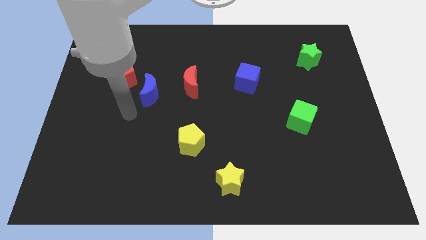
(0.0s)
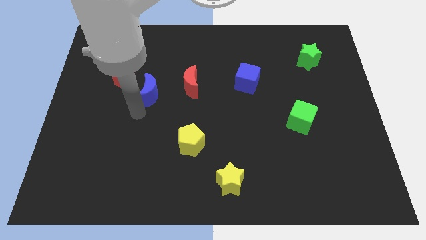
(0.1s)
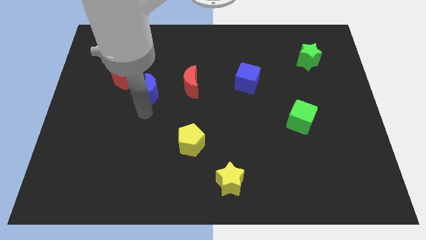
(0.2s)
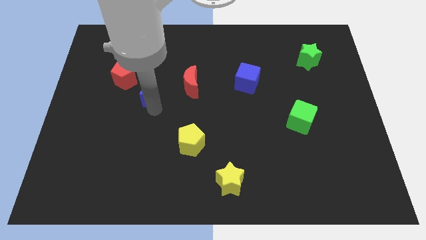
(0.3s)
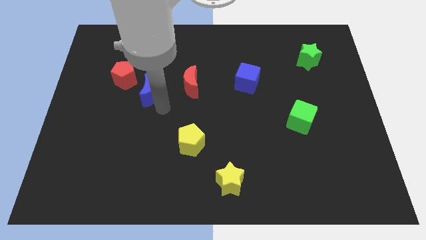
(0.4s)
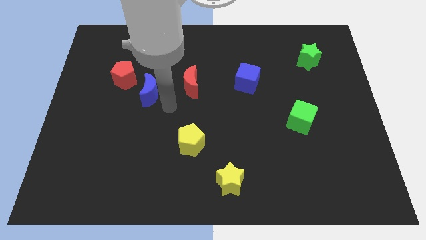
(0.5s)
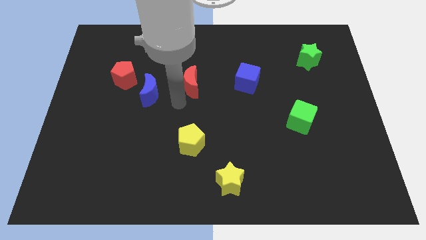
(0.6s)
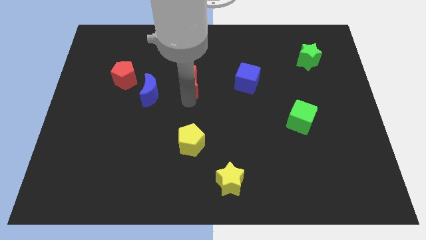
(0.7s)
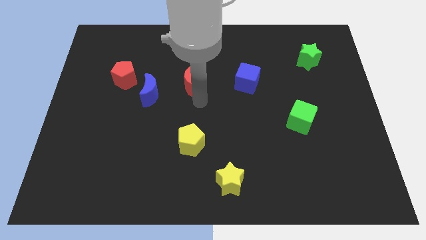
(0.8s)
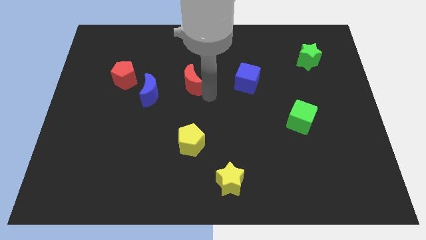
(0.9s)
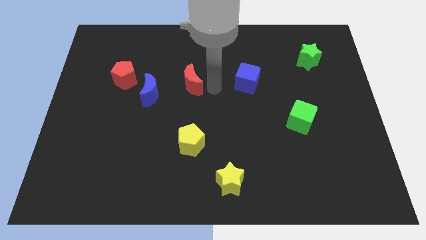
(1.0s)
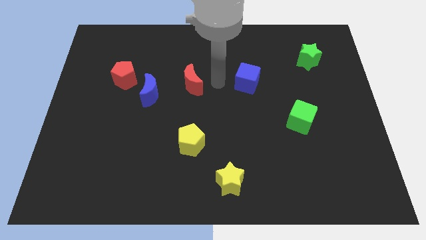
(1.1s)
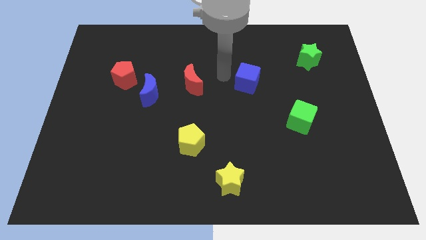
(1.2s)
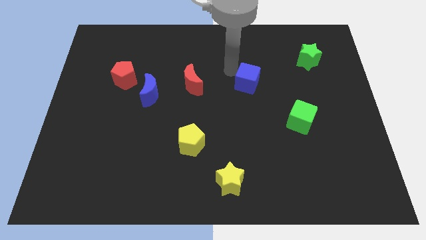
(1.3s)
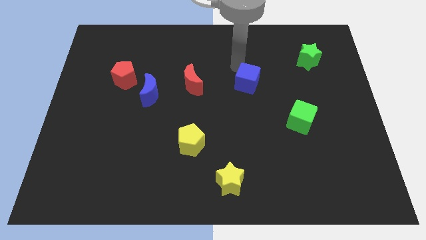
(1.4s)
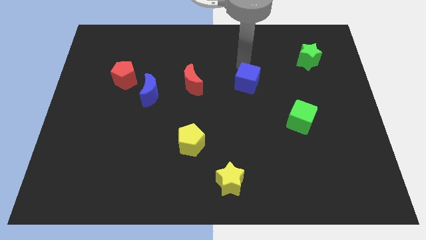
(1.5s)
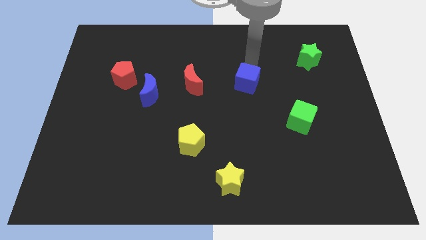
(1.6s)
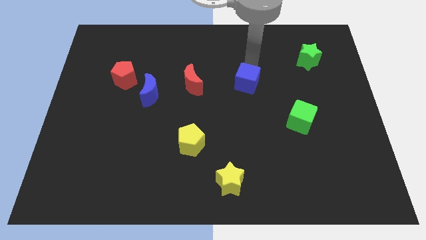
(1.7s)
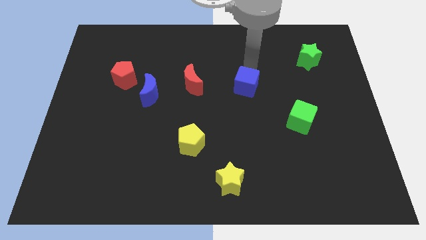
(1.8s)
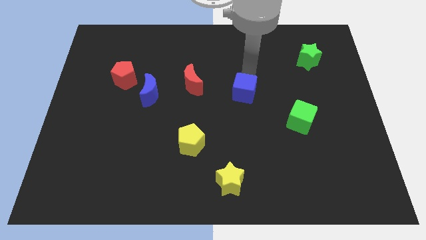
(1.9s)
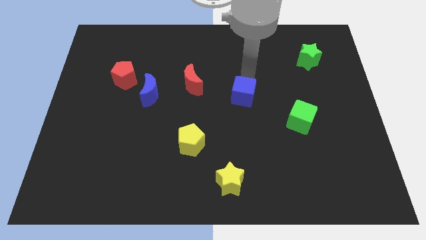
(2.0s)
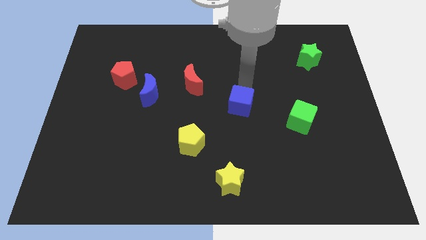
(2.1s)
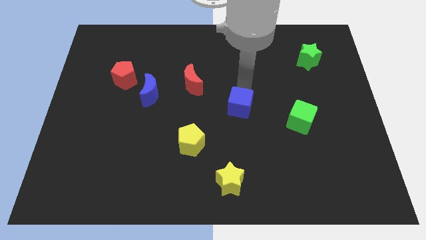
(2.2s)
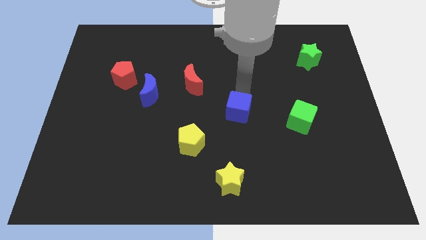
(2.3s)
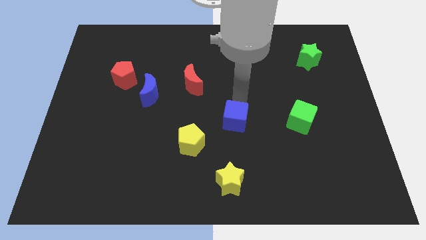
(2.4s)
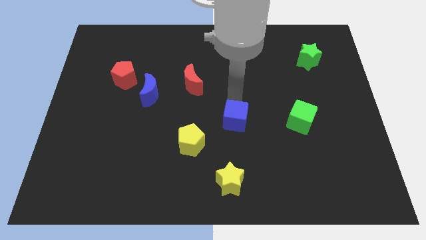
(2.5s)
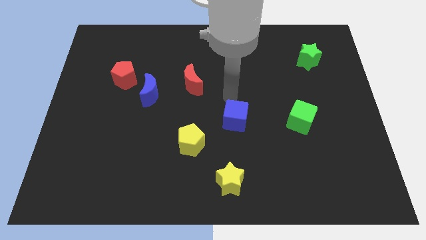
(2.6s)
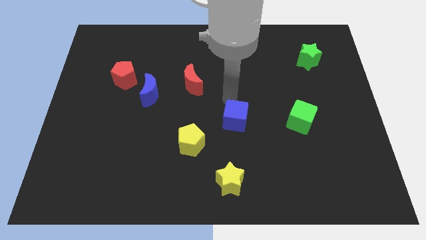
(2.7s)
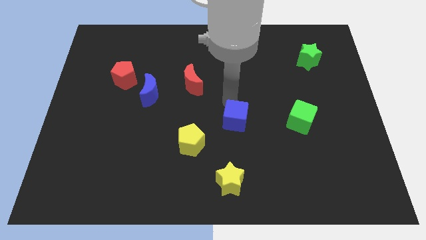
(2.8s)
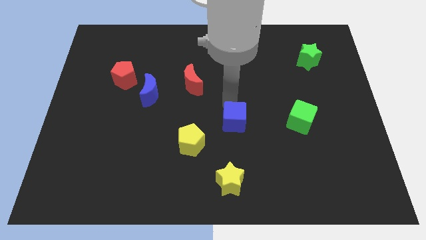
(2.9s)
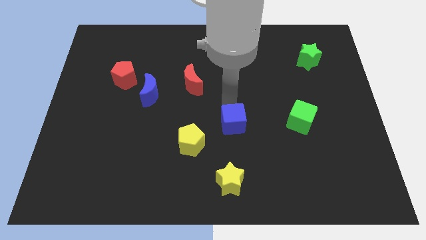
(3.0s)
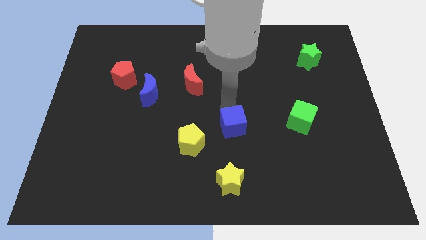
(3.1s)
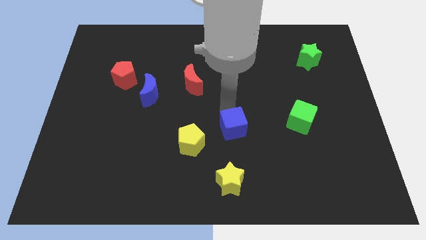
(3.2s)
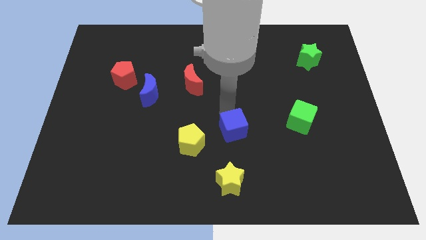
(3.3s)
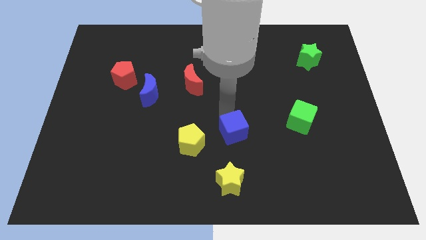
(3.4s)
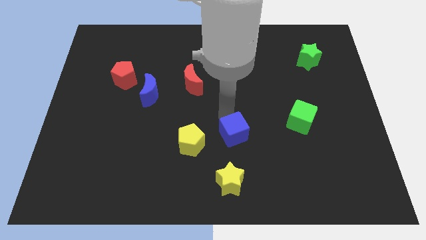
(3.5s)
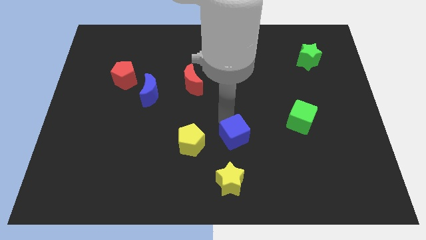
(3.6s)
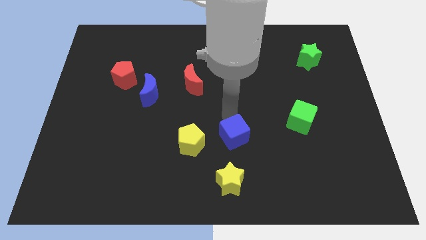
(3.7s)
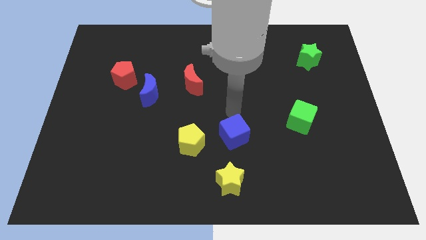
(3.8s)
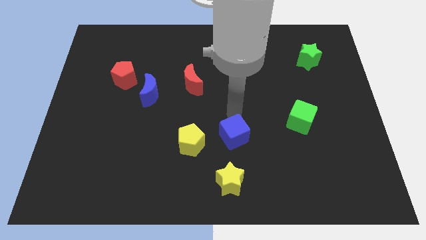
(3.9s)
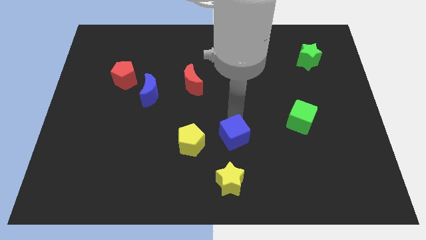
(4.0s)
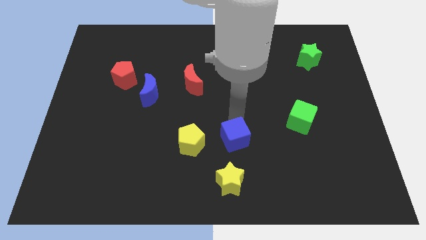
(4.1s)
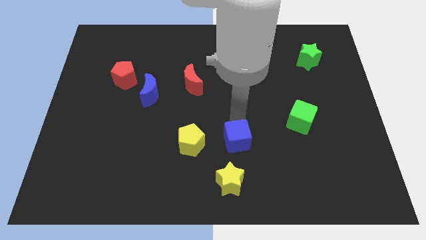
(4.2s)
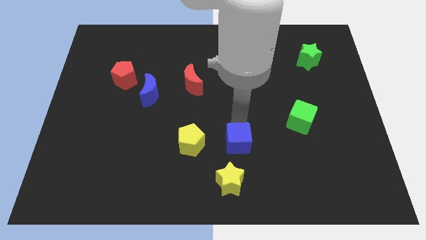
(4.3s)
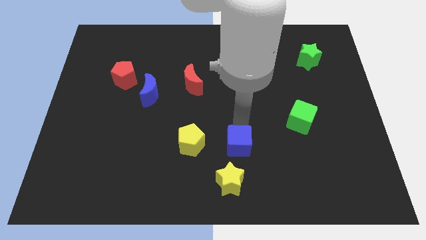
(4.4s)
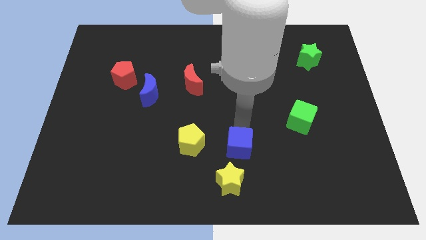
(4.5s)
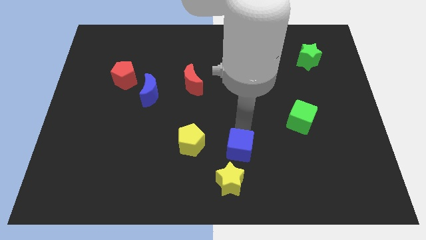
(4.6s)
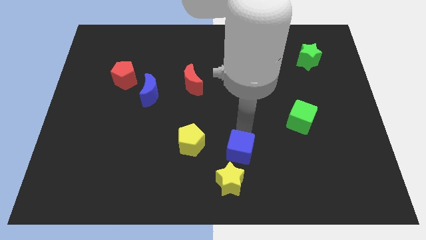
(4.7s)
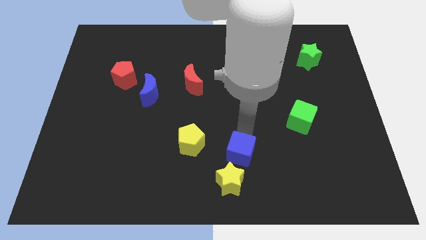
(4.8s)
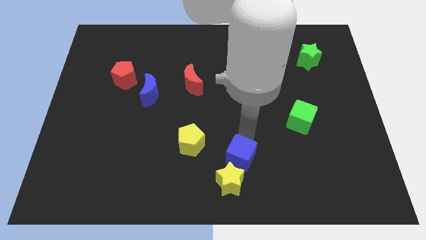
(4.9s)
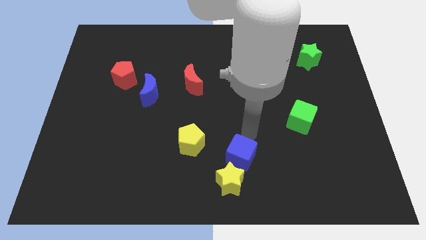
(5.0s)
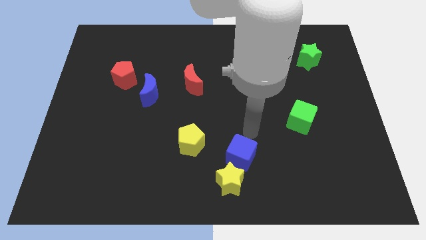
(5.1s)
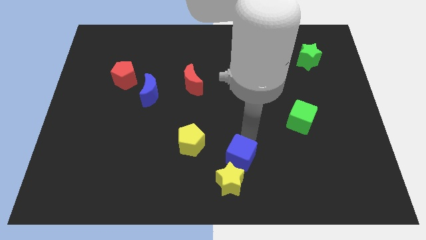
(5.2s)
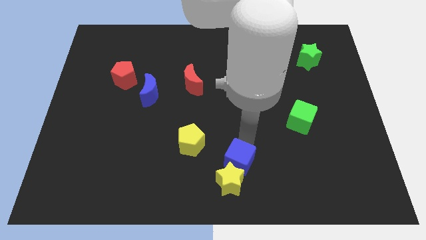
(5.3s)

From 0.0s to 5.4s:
put the blue cube towards the yellow star

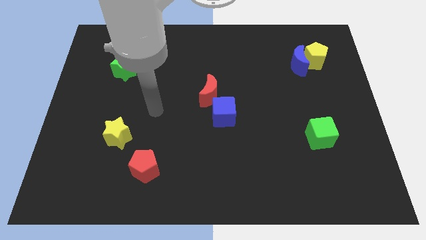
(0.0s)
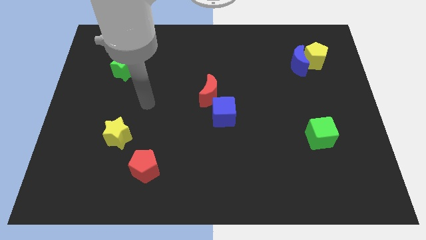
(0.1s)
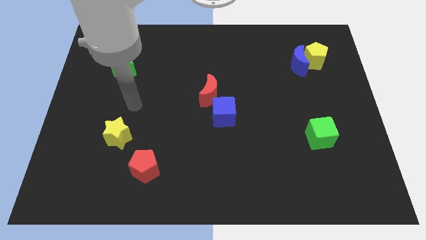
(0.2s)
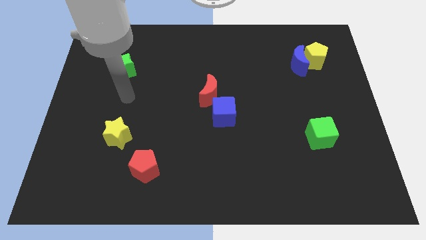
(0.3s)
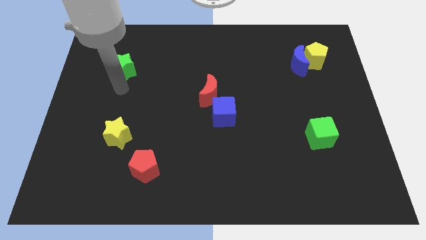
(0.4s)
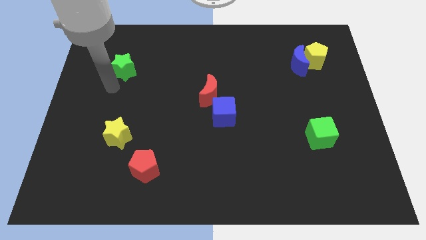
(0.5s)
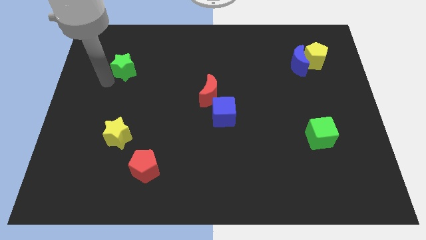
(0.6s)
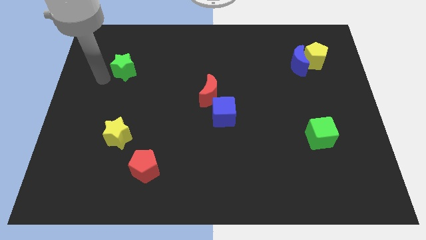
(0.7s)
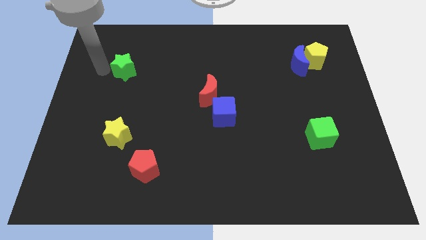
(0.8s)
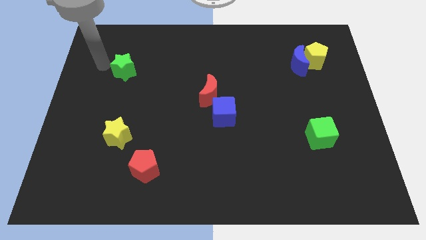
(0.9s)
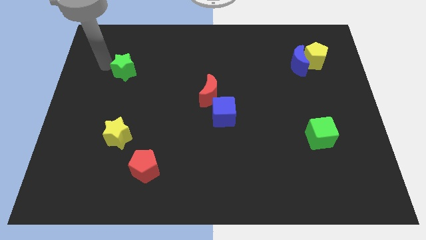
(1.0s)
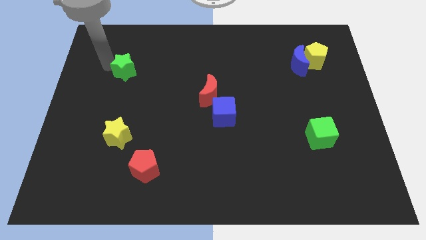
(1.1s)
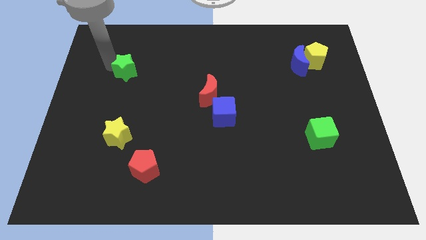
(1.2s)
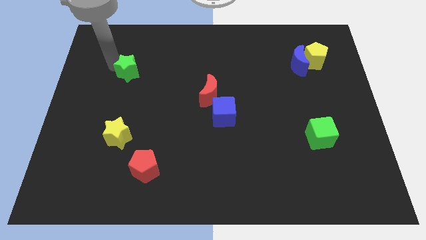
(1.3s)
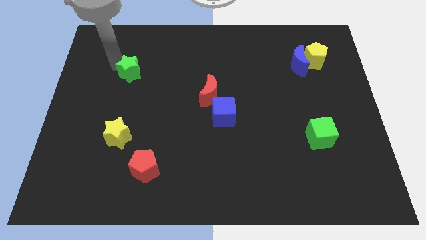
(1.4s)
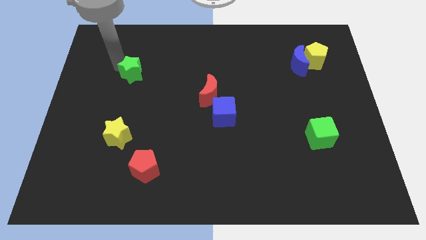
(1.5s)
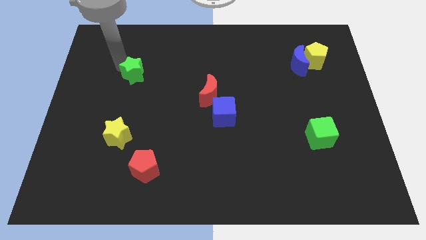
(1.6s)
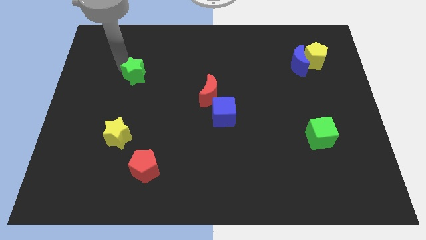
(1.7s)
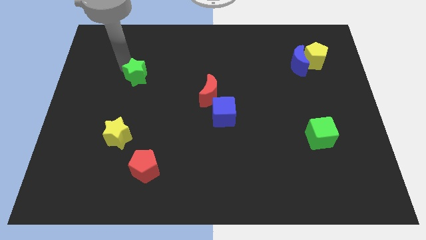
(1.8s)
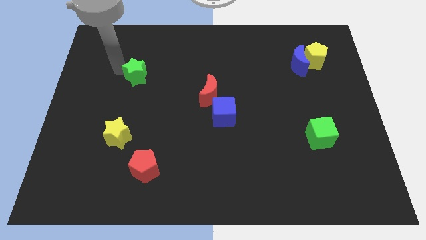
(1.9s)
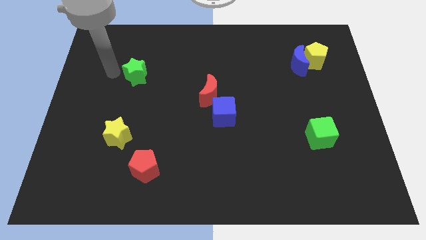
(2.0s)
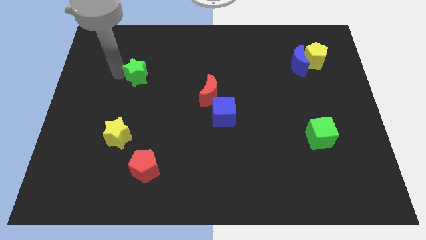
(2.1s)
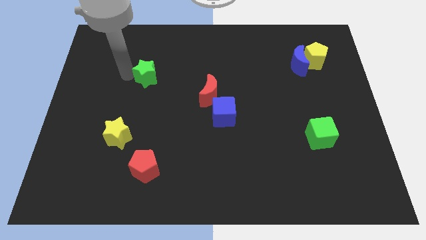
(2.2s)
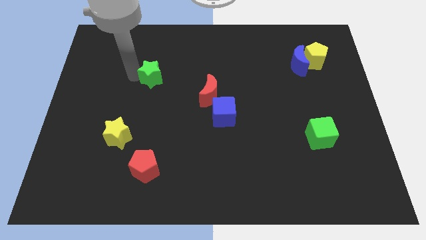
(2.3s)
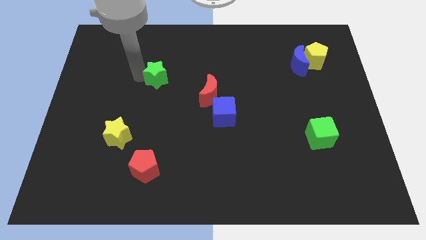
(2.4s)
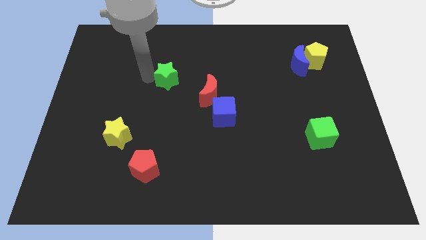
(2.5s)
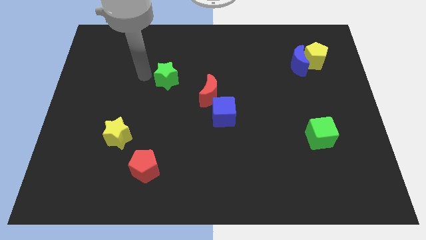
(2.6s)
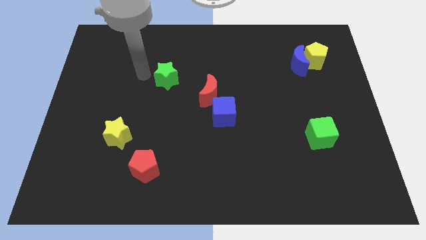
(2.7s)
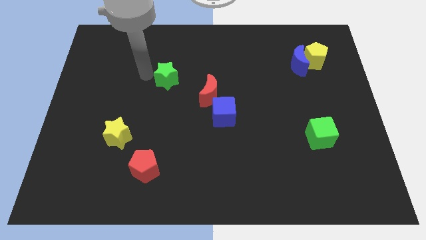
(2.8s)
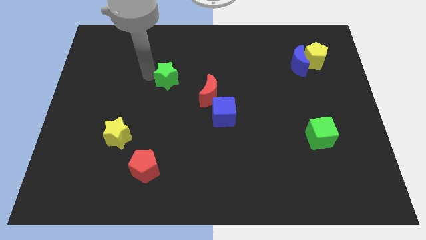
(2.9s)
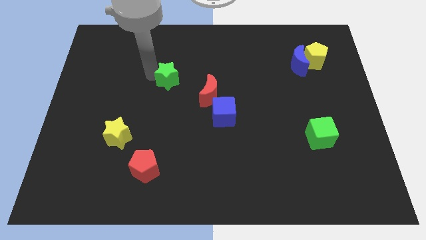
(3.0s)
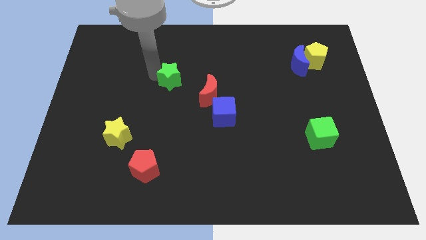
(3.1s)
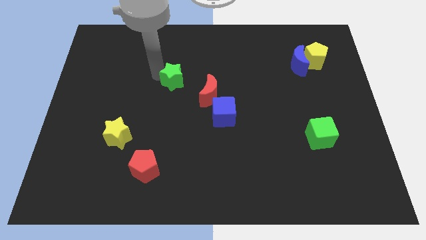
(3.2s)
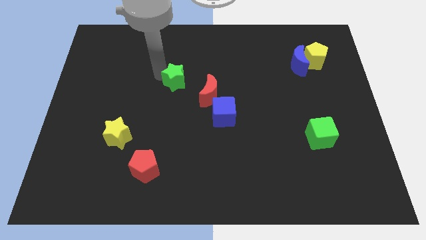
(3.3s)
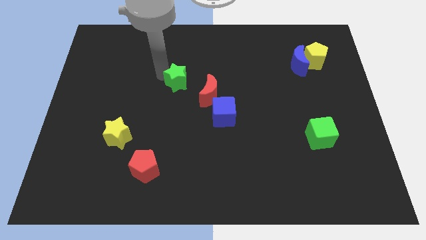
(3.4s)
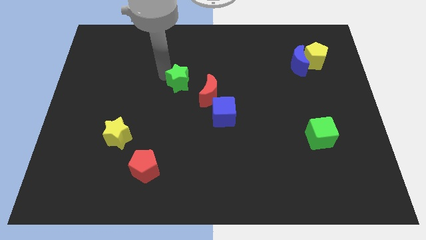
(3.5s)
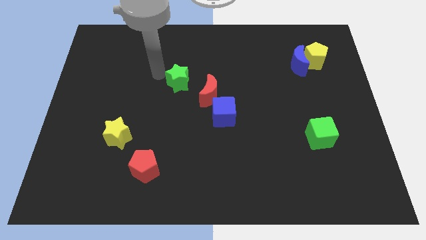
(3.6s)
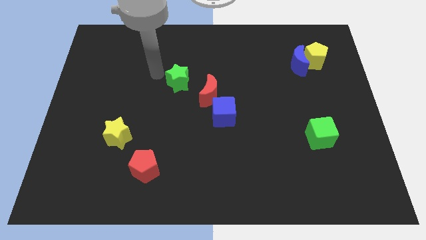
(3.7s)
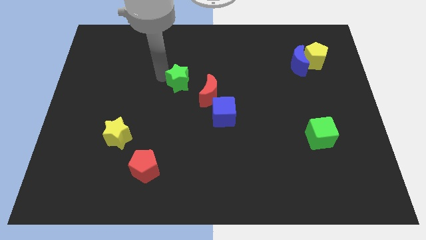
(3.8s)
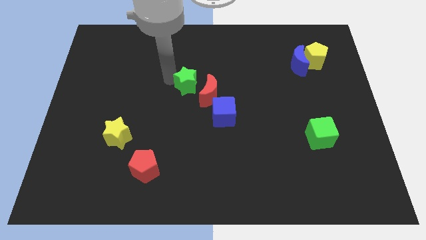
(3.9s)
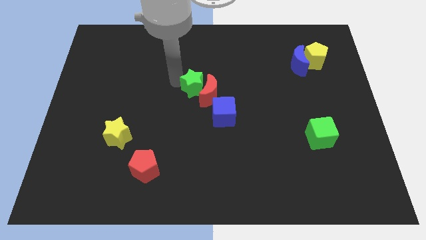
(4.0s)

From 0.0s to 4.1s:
slide the green star close to the red moon
